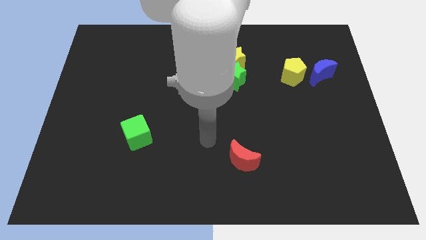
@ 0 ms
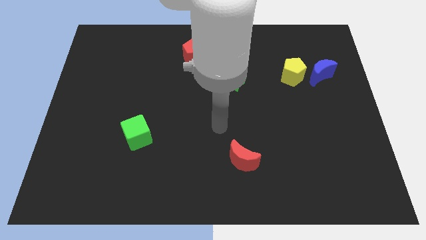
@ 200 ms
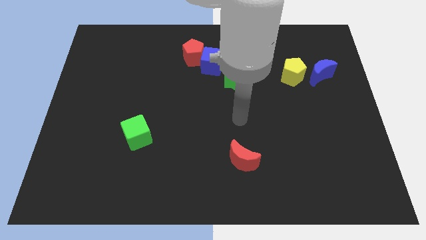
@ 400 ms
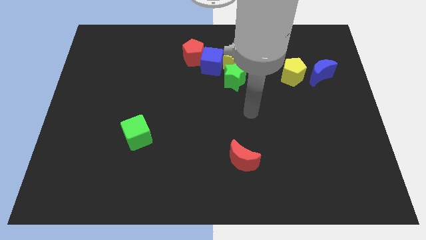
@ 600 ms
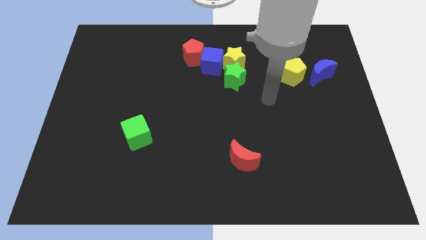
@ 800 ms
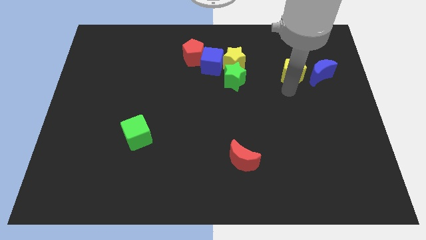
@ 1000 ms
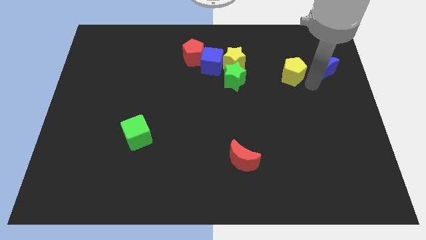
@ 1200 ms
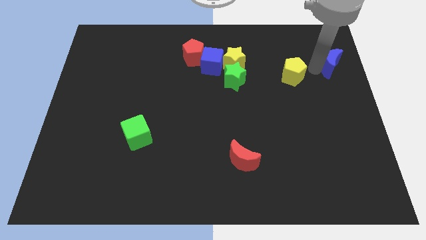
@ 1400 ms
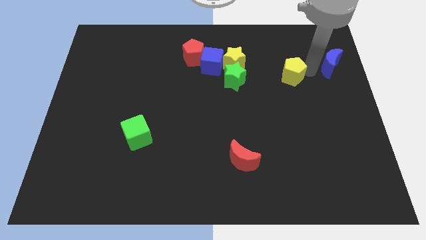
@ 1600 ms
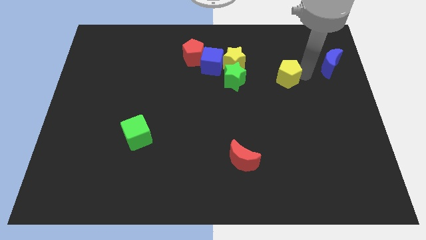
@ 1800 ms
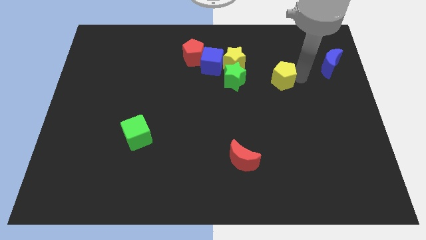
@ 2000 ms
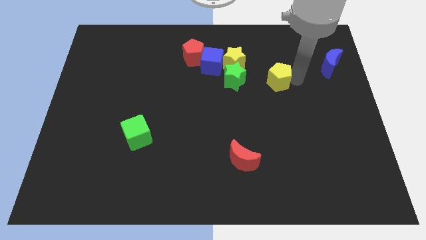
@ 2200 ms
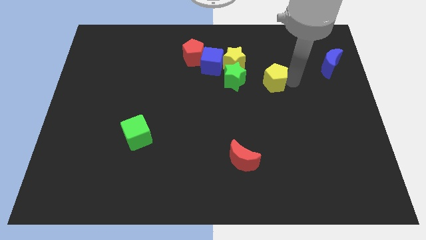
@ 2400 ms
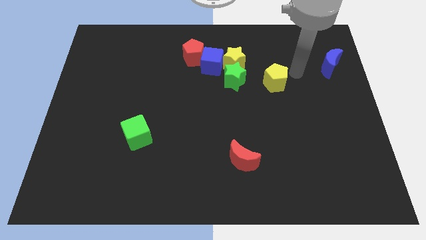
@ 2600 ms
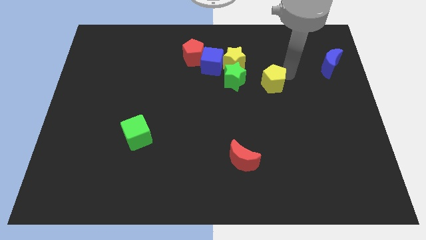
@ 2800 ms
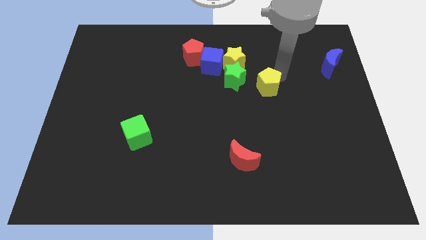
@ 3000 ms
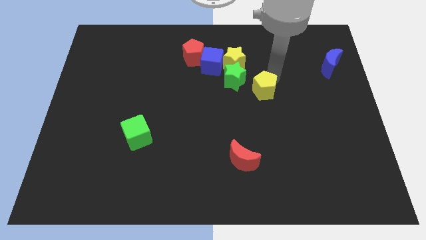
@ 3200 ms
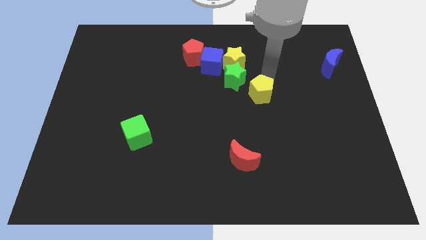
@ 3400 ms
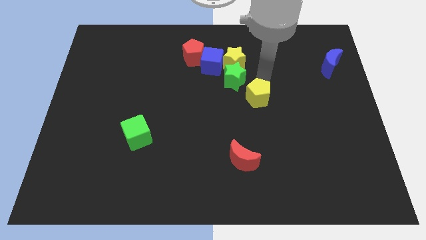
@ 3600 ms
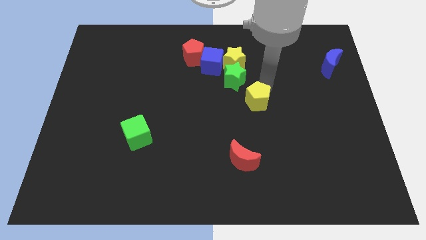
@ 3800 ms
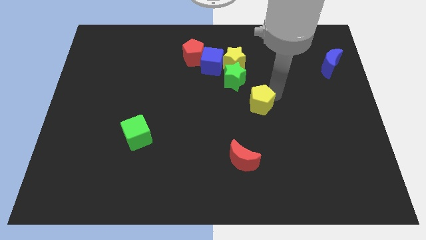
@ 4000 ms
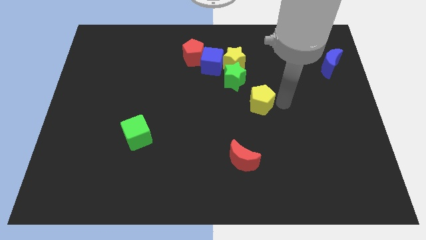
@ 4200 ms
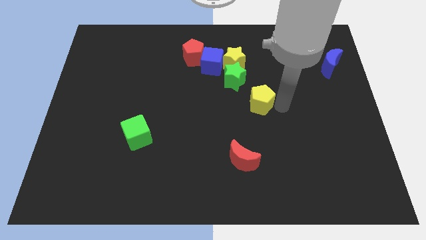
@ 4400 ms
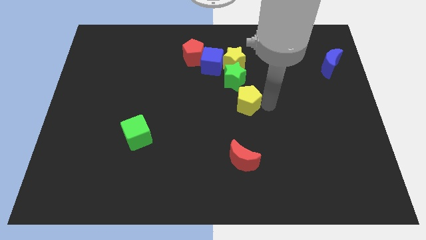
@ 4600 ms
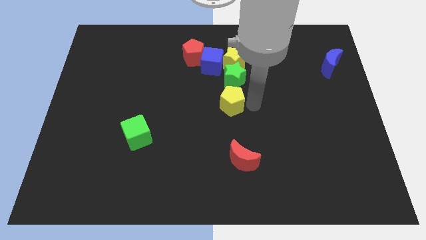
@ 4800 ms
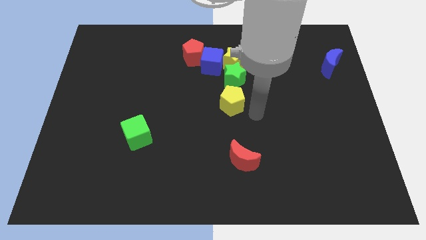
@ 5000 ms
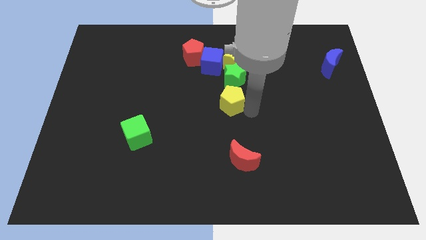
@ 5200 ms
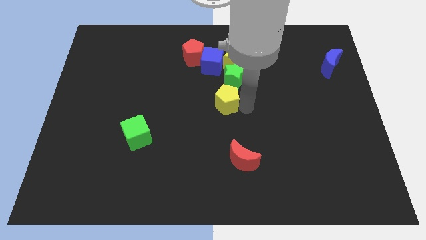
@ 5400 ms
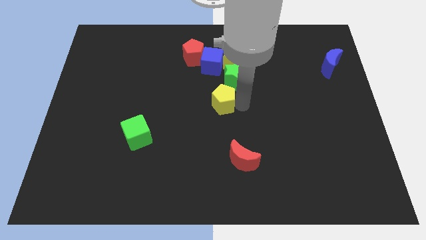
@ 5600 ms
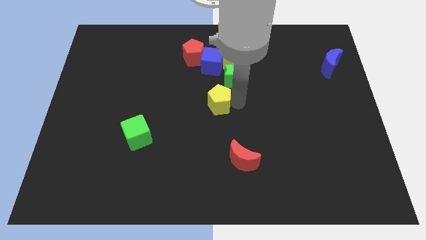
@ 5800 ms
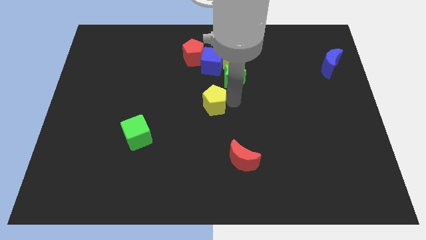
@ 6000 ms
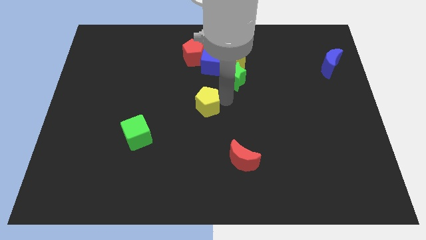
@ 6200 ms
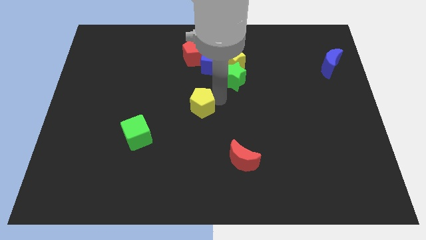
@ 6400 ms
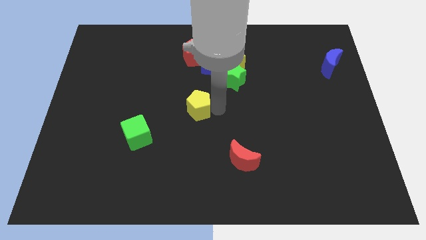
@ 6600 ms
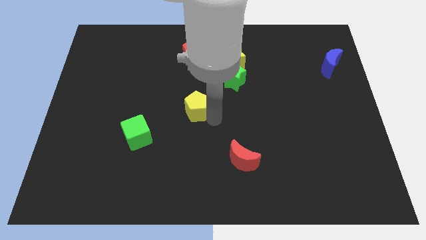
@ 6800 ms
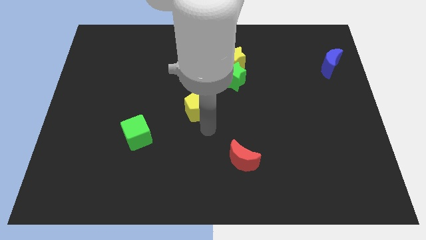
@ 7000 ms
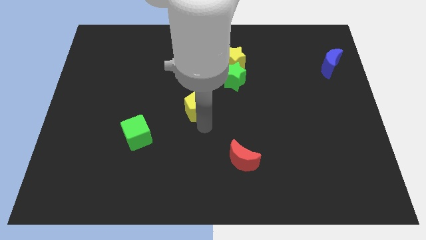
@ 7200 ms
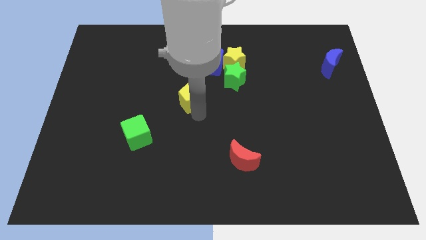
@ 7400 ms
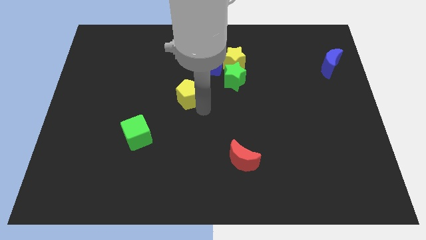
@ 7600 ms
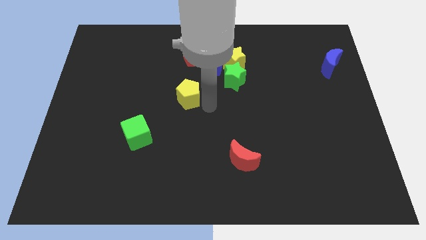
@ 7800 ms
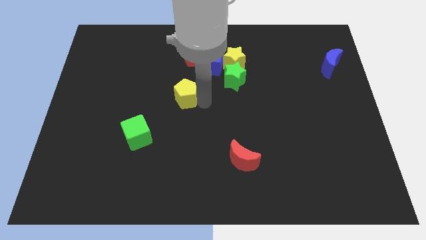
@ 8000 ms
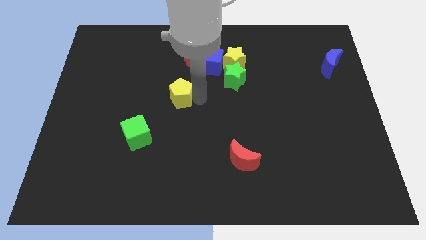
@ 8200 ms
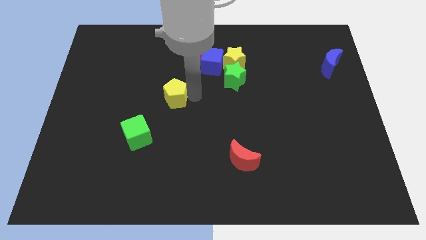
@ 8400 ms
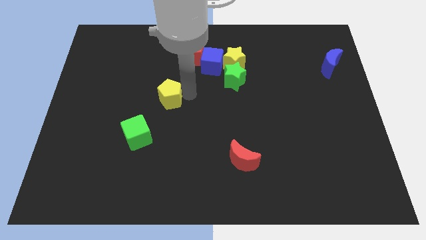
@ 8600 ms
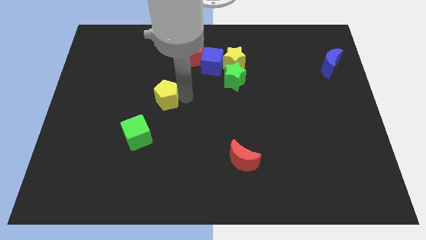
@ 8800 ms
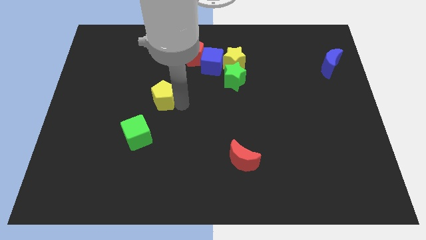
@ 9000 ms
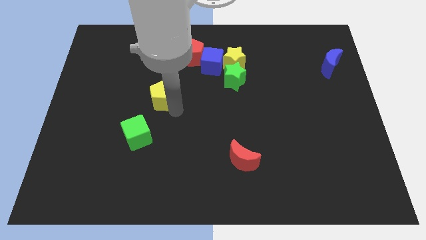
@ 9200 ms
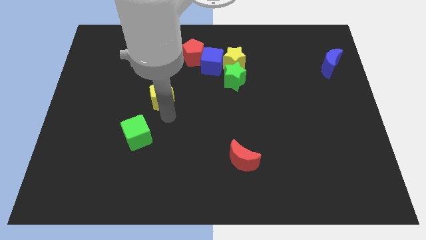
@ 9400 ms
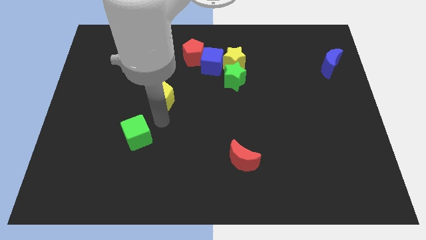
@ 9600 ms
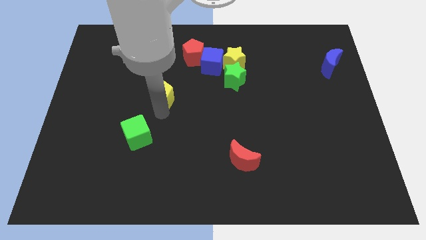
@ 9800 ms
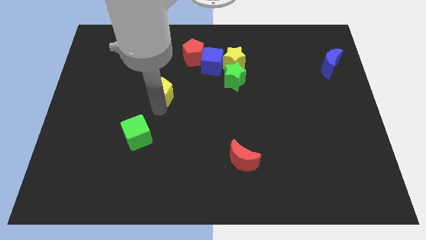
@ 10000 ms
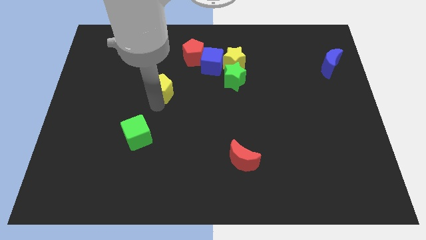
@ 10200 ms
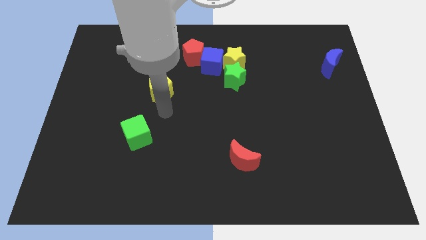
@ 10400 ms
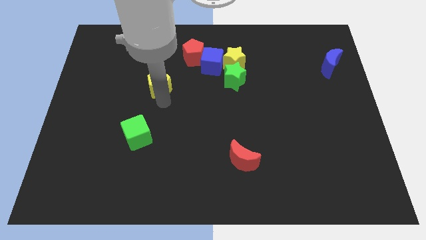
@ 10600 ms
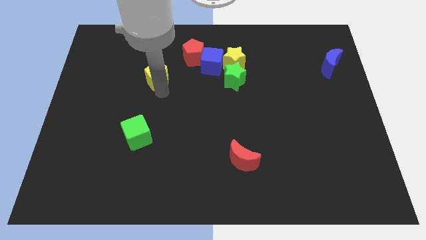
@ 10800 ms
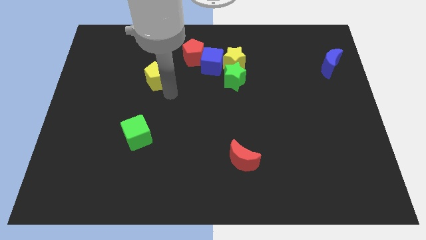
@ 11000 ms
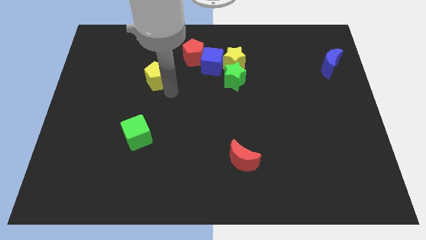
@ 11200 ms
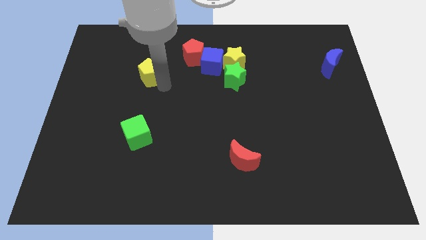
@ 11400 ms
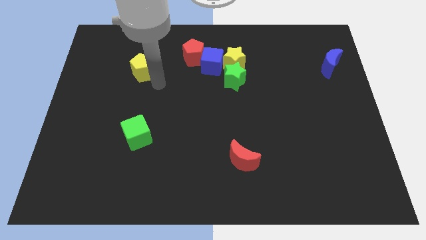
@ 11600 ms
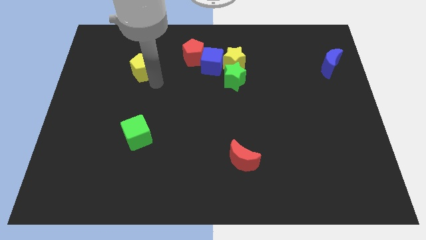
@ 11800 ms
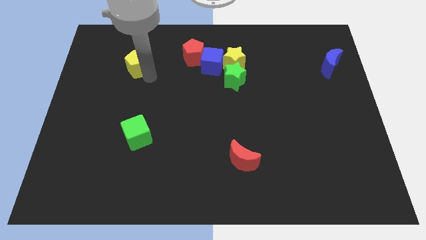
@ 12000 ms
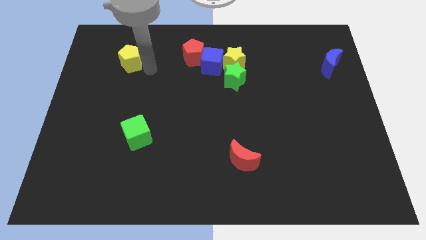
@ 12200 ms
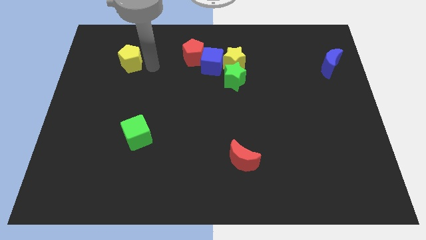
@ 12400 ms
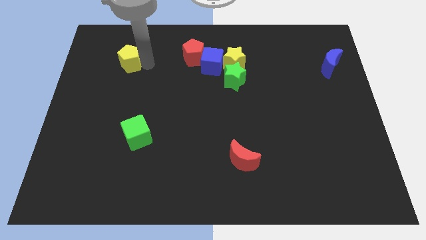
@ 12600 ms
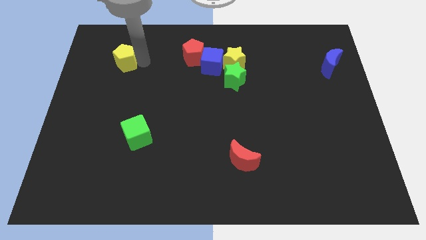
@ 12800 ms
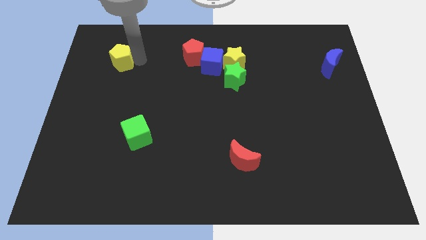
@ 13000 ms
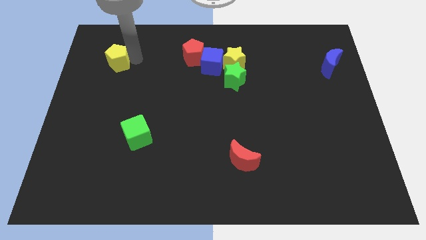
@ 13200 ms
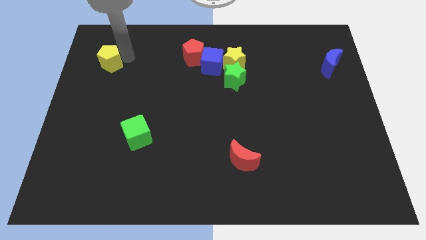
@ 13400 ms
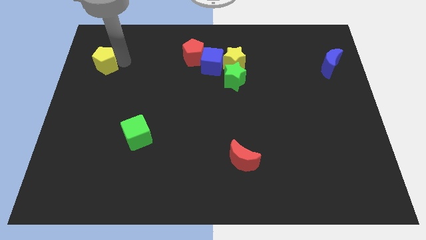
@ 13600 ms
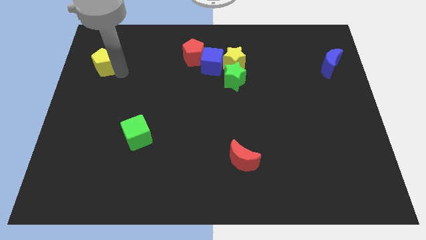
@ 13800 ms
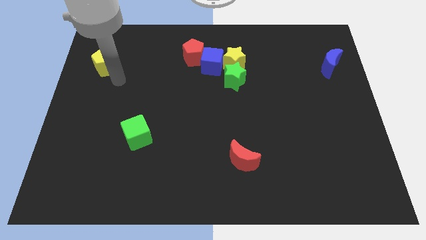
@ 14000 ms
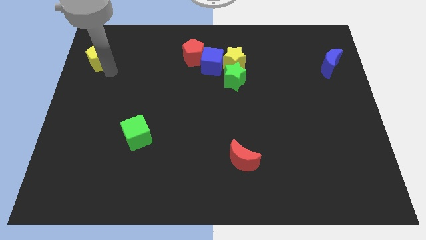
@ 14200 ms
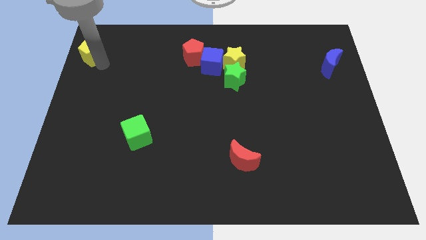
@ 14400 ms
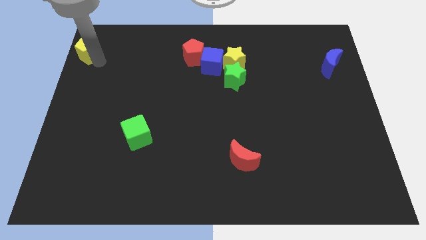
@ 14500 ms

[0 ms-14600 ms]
slide the yellow pentagon to the upper left corner
